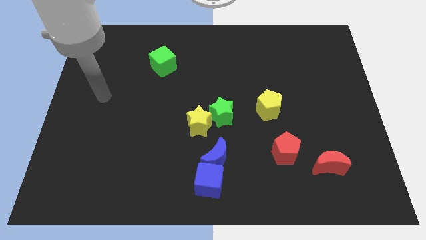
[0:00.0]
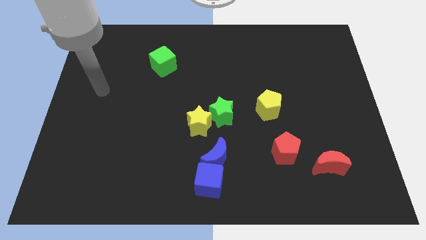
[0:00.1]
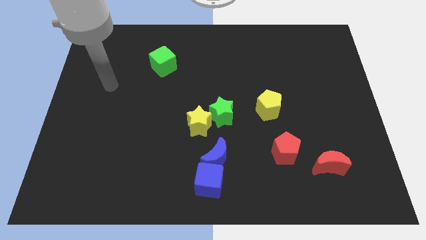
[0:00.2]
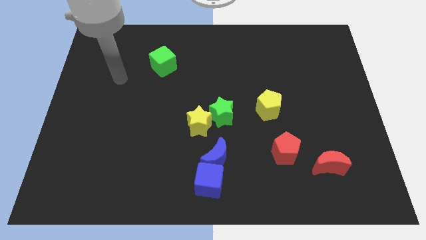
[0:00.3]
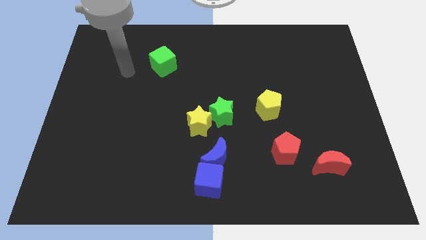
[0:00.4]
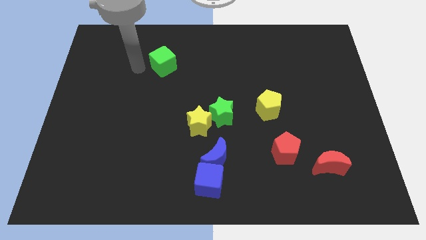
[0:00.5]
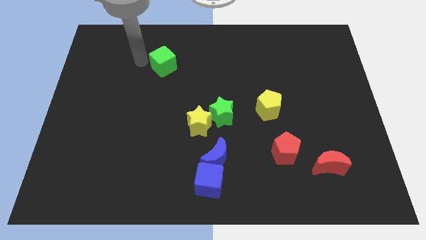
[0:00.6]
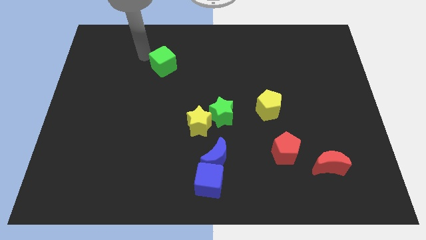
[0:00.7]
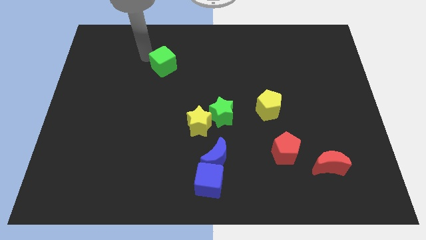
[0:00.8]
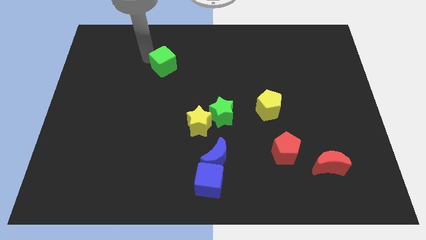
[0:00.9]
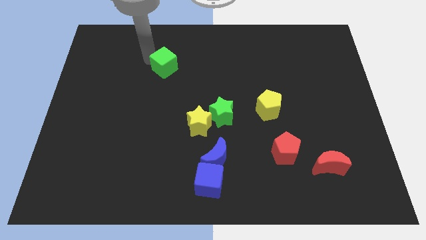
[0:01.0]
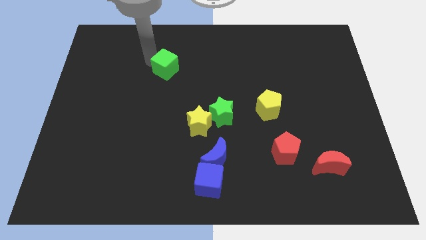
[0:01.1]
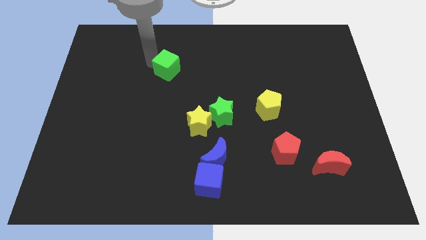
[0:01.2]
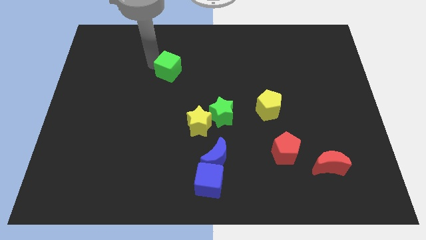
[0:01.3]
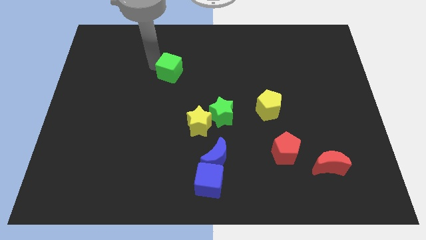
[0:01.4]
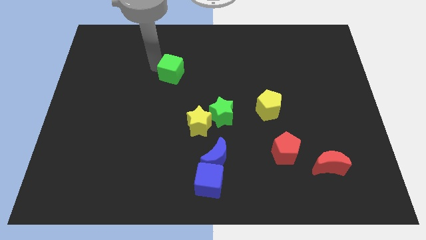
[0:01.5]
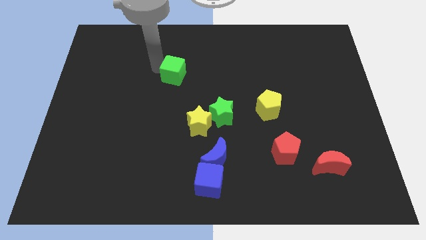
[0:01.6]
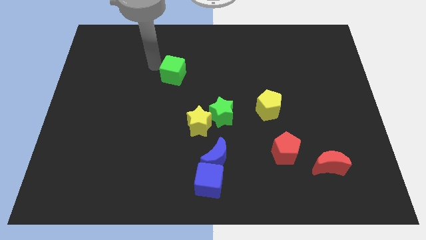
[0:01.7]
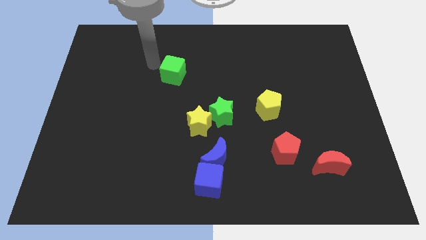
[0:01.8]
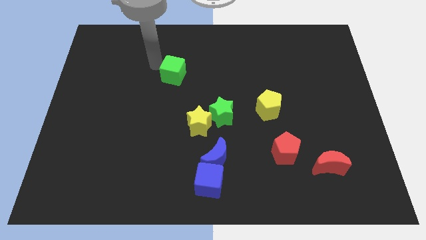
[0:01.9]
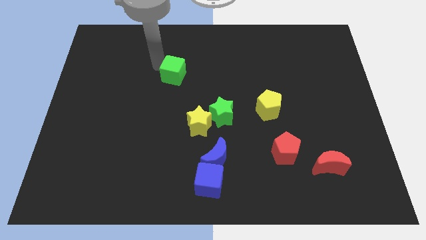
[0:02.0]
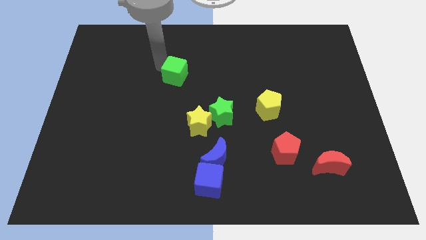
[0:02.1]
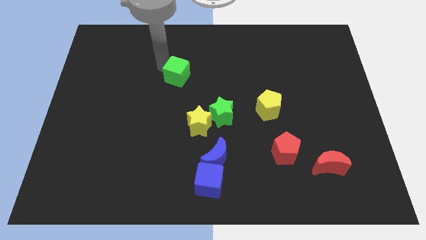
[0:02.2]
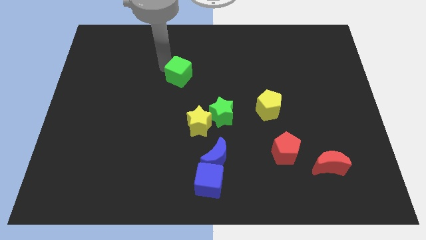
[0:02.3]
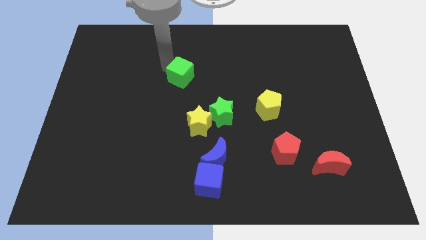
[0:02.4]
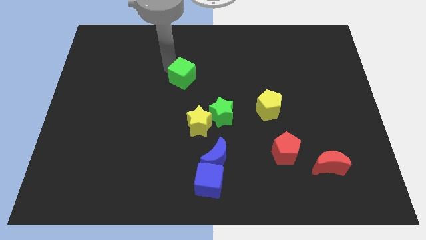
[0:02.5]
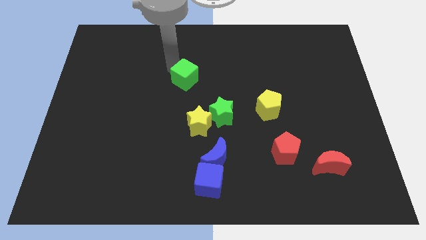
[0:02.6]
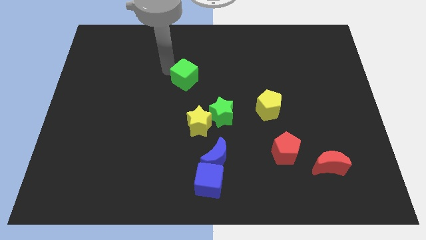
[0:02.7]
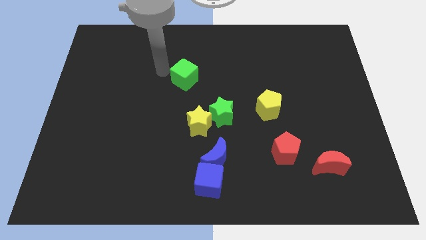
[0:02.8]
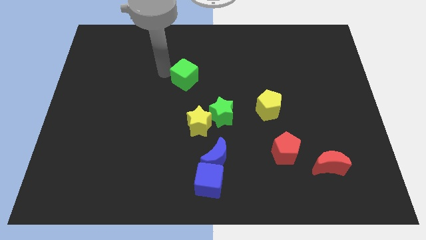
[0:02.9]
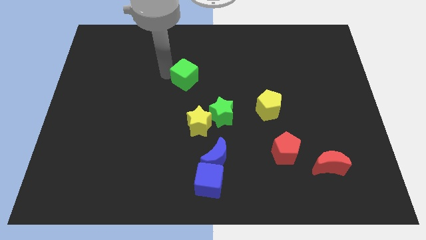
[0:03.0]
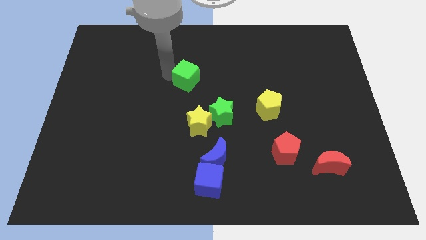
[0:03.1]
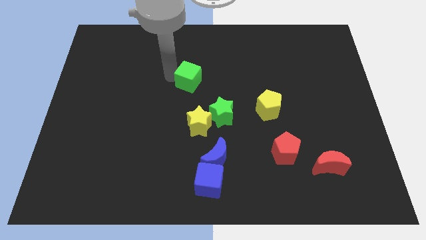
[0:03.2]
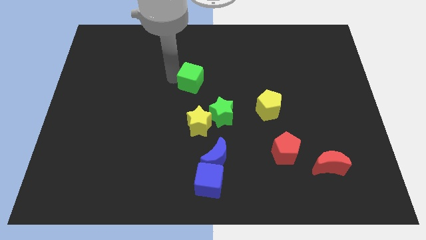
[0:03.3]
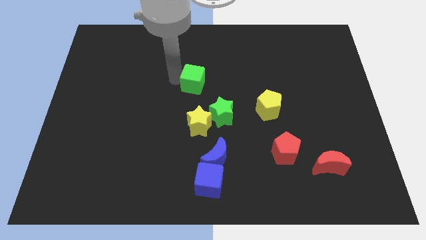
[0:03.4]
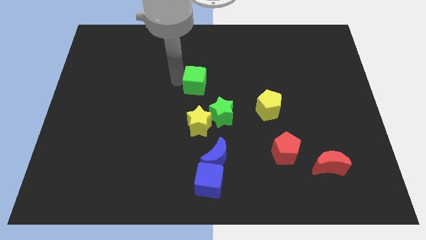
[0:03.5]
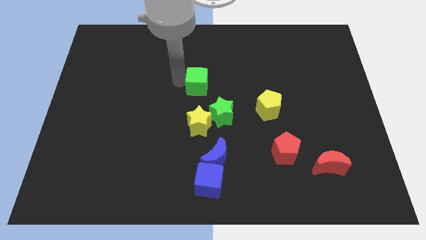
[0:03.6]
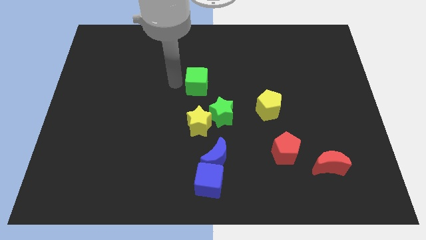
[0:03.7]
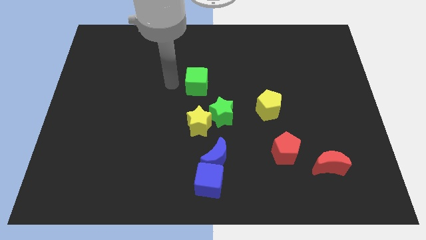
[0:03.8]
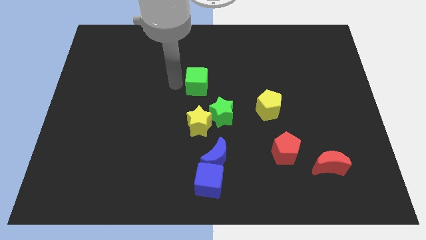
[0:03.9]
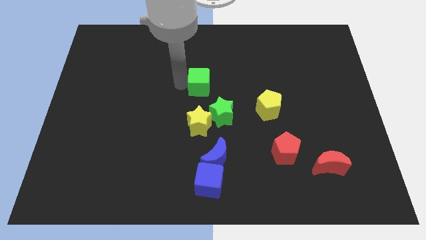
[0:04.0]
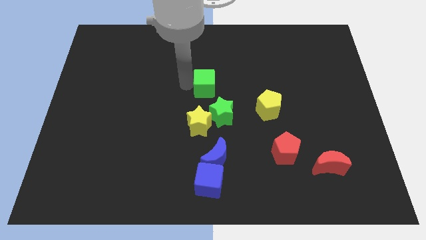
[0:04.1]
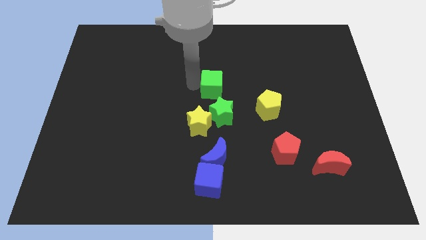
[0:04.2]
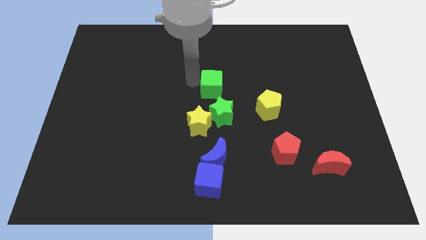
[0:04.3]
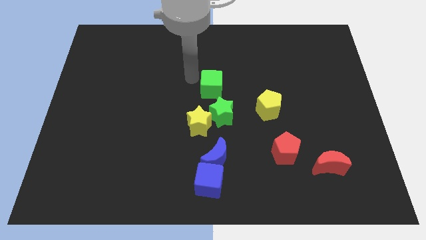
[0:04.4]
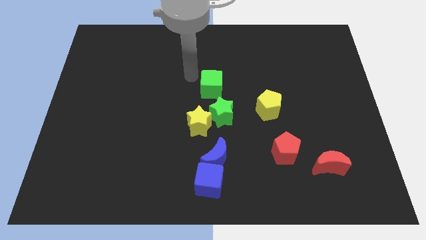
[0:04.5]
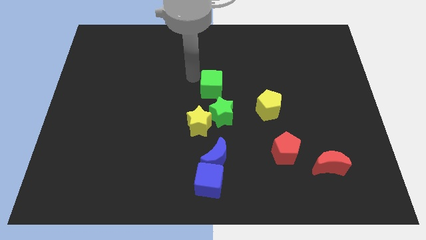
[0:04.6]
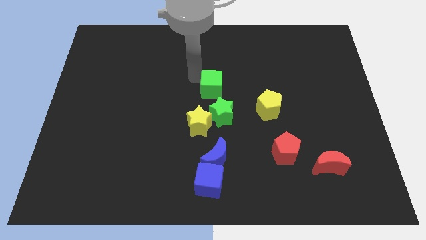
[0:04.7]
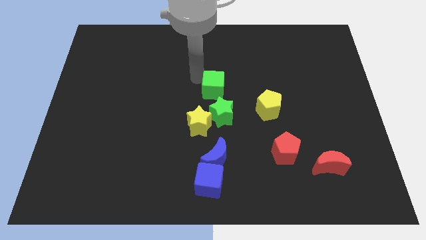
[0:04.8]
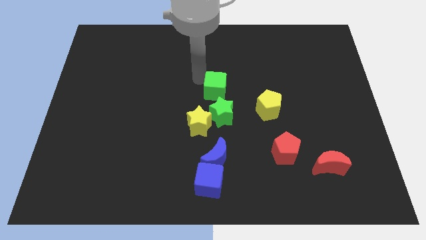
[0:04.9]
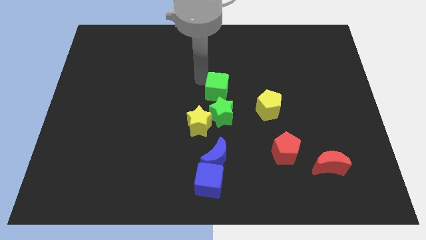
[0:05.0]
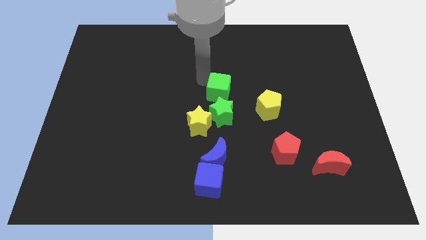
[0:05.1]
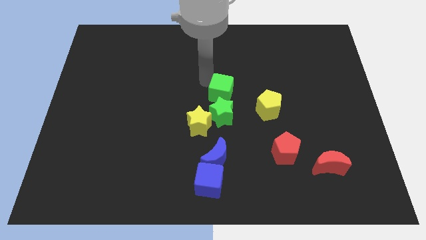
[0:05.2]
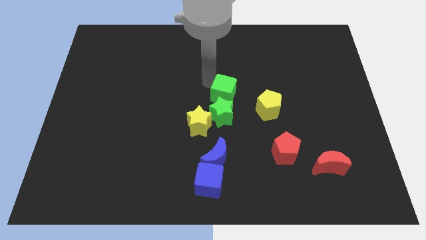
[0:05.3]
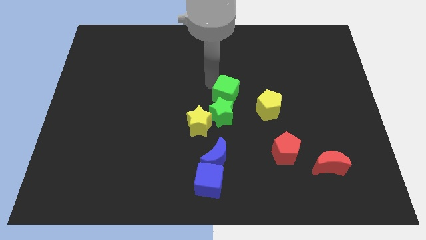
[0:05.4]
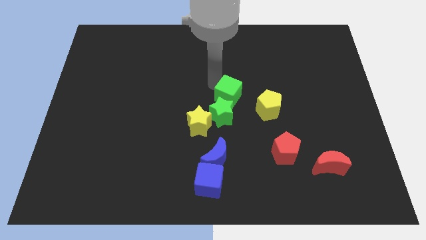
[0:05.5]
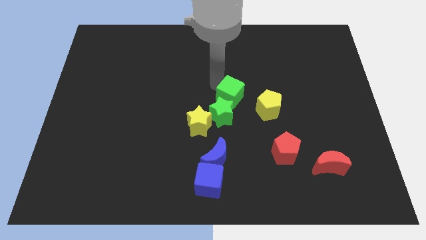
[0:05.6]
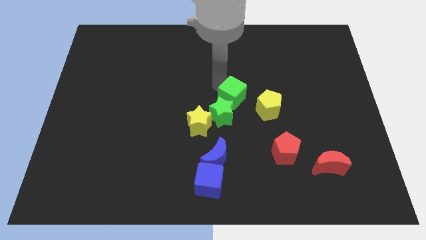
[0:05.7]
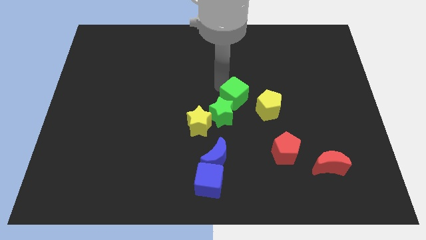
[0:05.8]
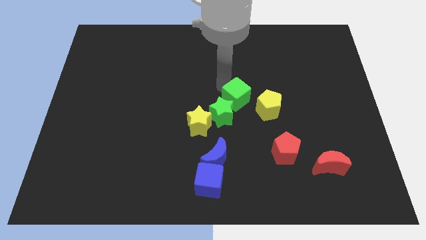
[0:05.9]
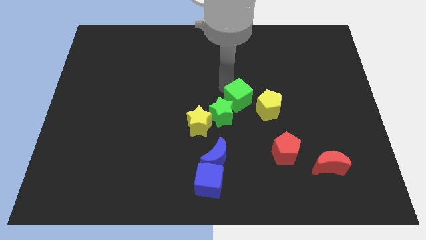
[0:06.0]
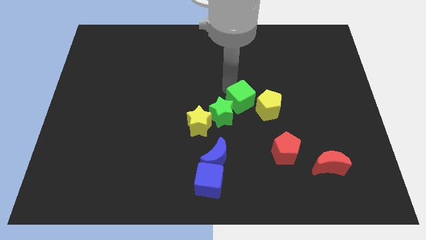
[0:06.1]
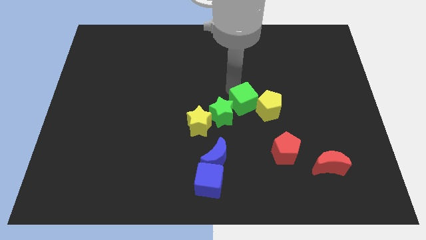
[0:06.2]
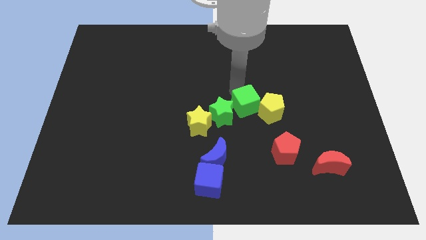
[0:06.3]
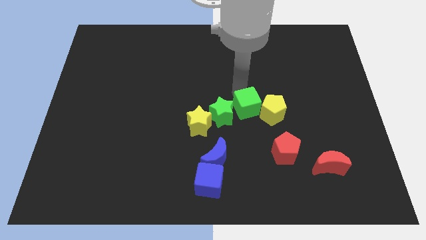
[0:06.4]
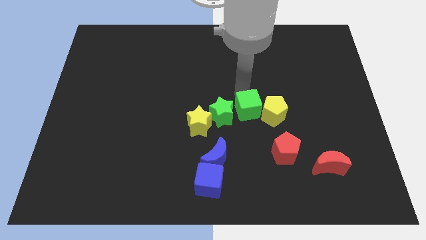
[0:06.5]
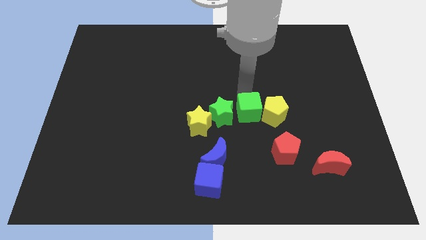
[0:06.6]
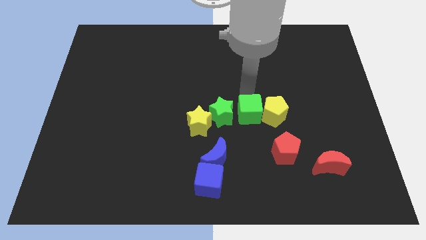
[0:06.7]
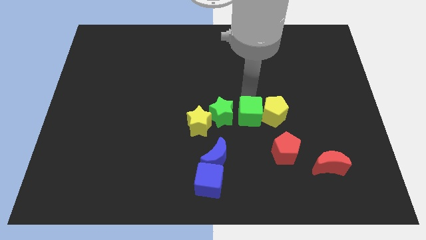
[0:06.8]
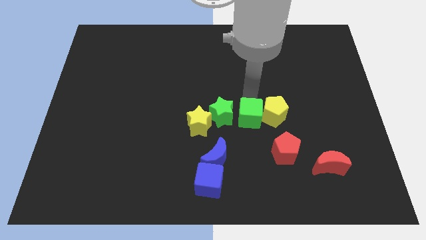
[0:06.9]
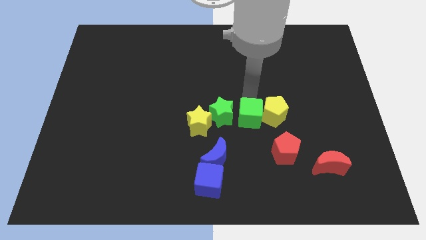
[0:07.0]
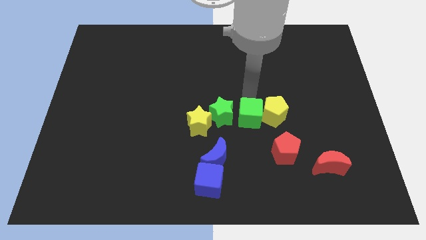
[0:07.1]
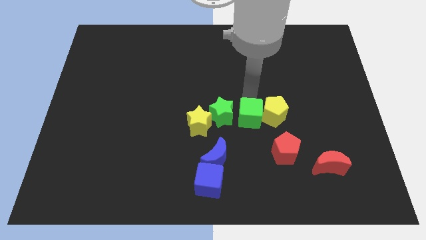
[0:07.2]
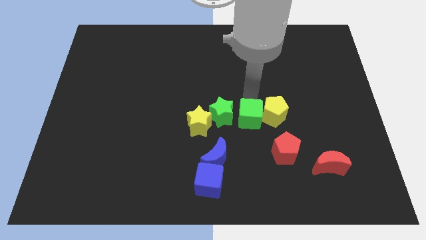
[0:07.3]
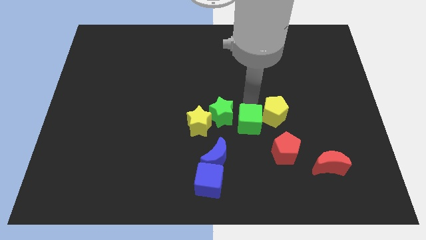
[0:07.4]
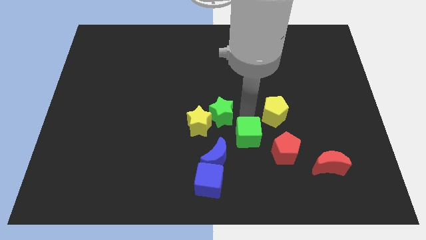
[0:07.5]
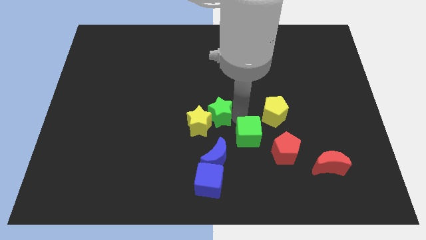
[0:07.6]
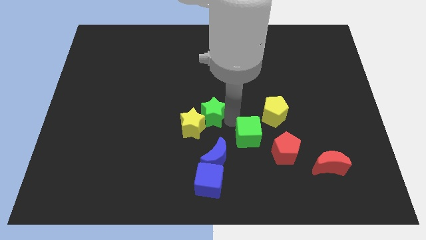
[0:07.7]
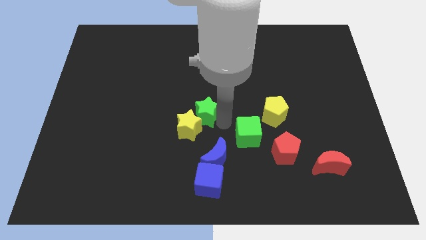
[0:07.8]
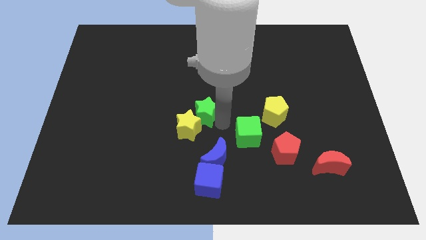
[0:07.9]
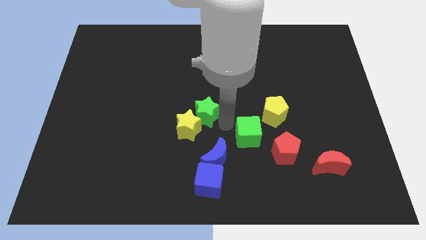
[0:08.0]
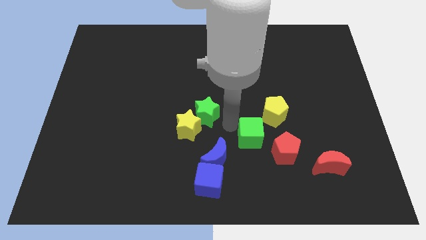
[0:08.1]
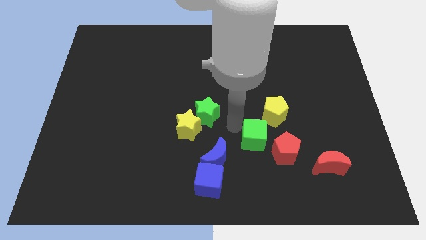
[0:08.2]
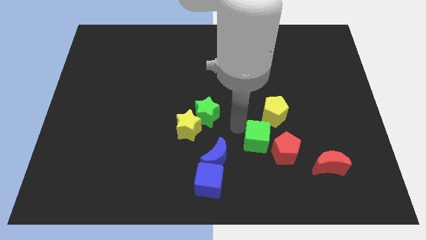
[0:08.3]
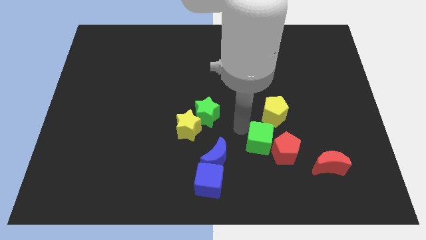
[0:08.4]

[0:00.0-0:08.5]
push the green cube next to the red pentagon
